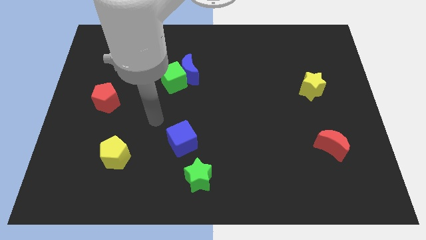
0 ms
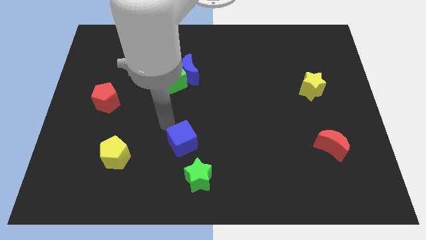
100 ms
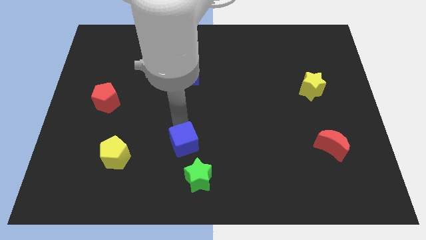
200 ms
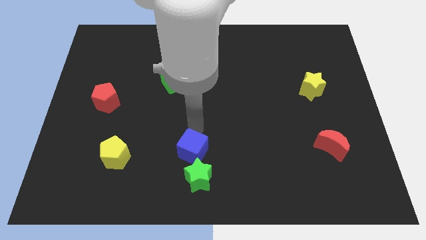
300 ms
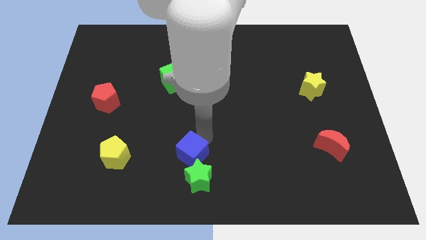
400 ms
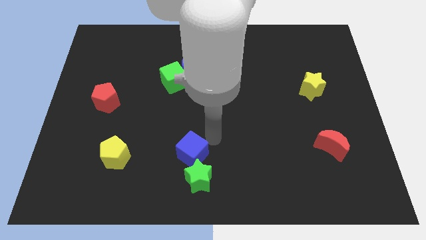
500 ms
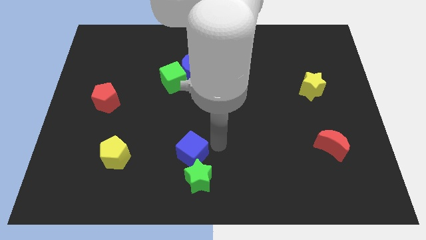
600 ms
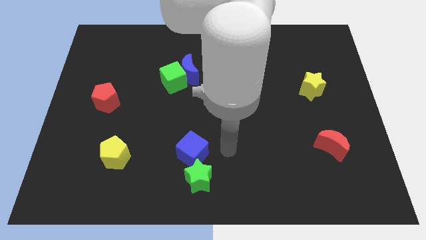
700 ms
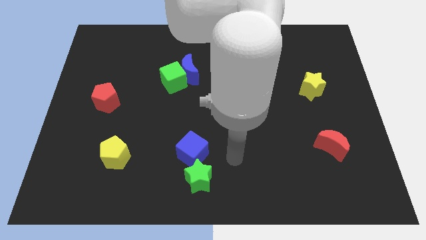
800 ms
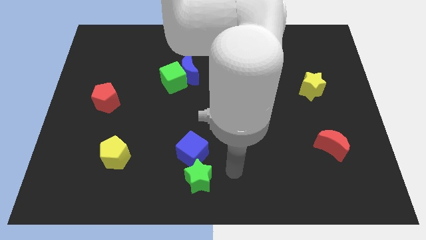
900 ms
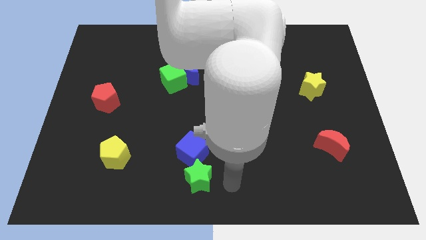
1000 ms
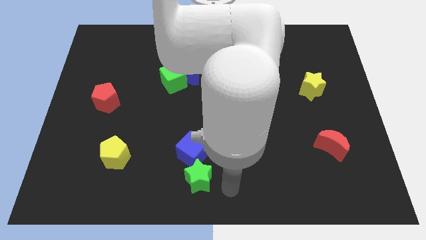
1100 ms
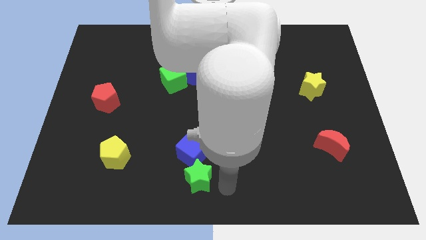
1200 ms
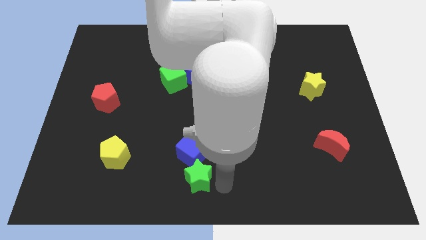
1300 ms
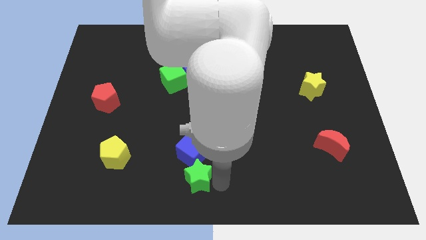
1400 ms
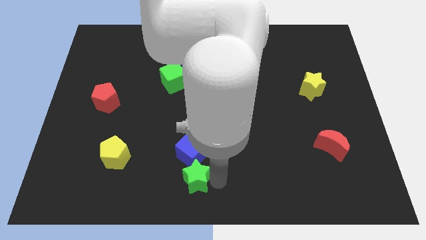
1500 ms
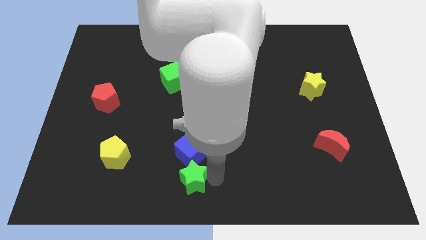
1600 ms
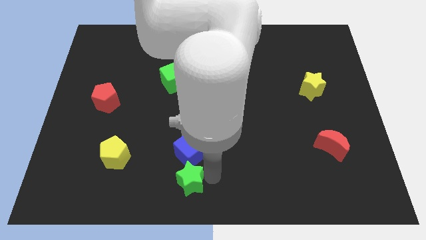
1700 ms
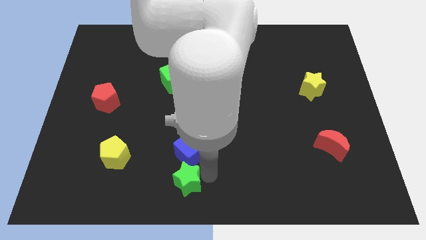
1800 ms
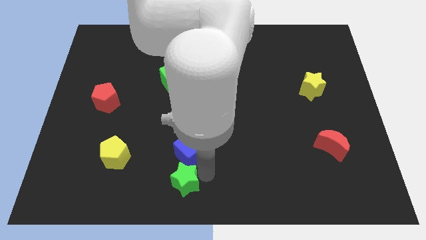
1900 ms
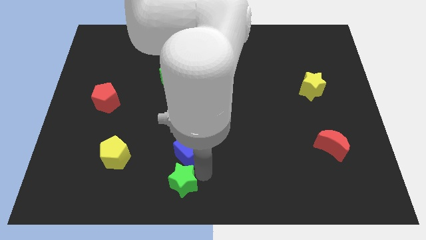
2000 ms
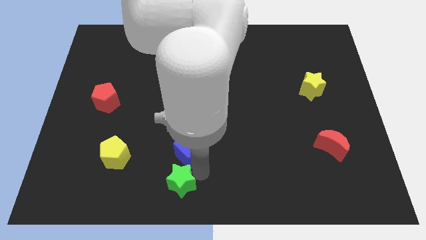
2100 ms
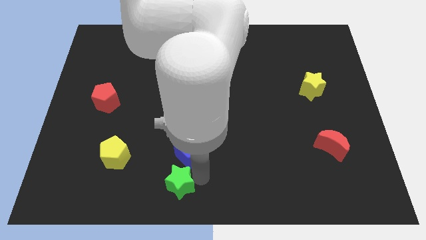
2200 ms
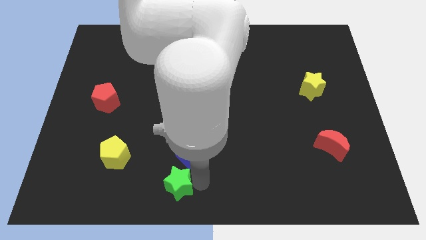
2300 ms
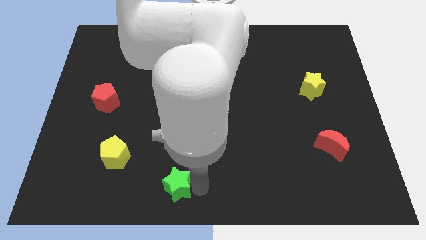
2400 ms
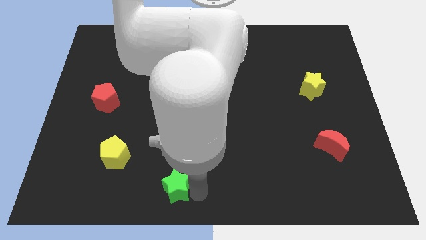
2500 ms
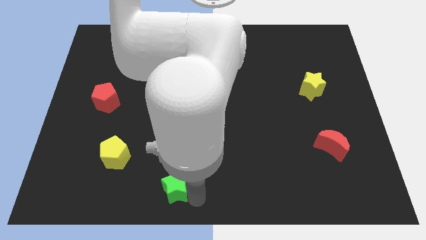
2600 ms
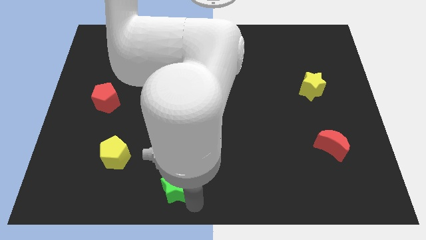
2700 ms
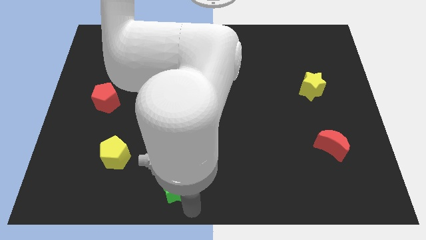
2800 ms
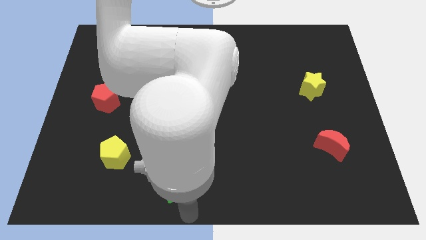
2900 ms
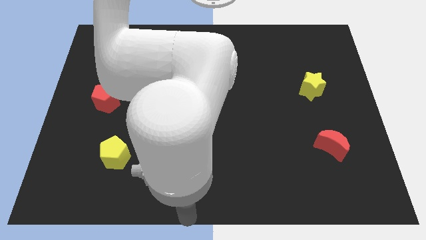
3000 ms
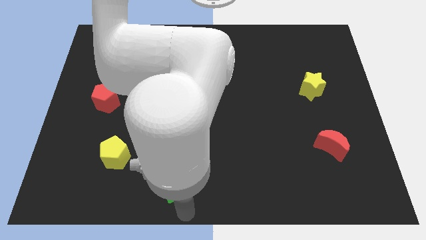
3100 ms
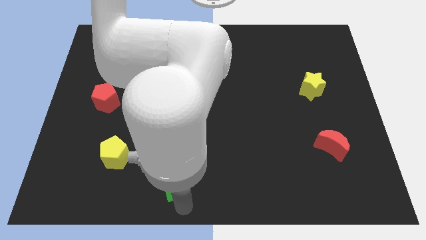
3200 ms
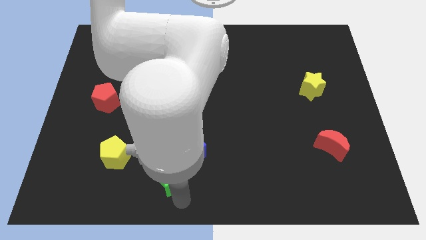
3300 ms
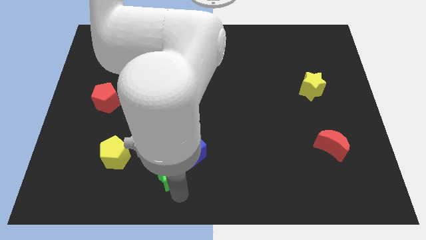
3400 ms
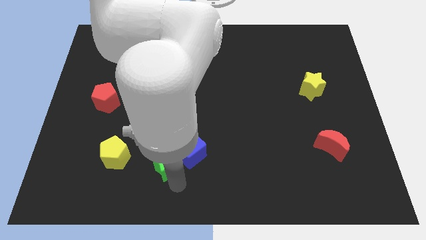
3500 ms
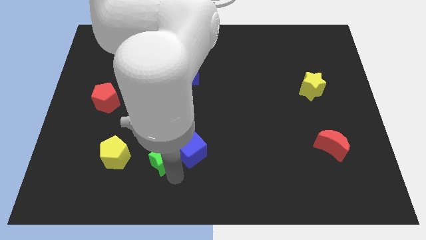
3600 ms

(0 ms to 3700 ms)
slightly push the green star upwards and then to the left

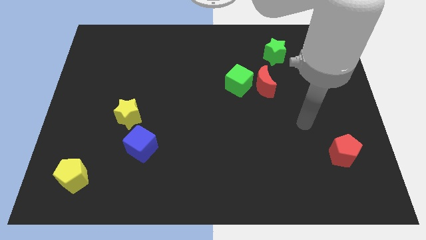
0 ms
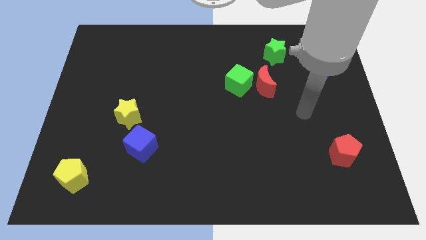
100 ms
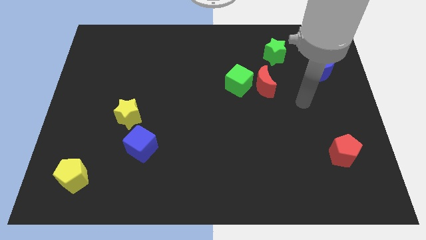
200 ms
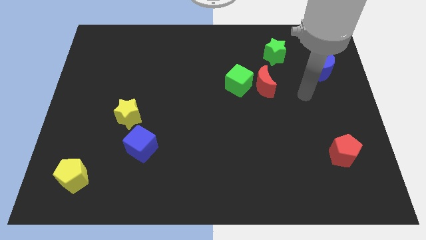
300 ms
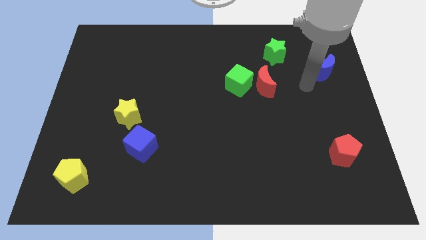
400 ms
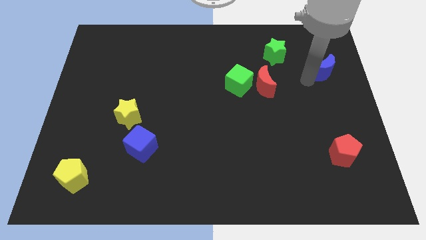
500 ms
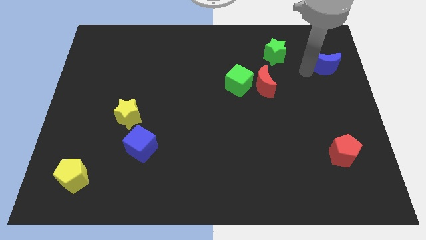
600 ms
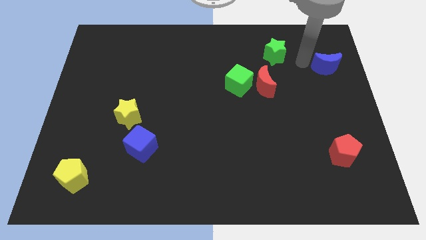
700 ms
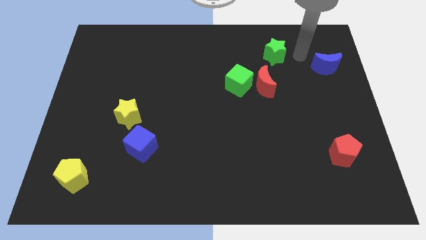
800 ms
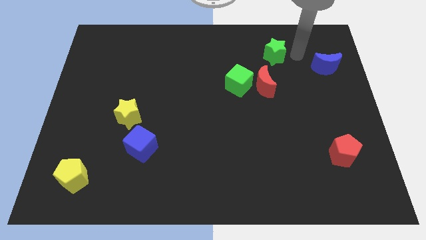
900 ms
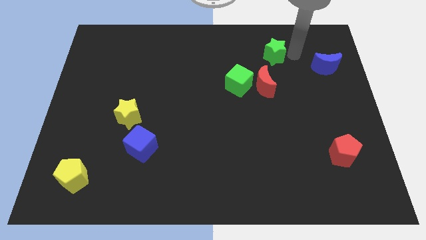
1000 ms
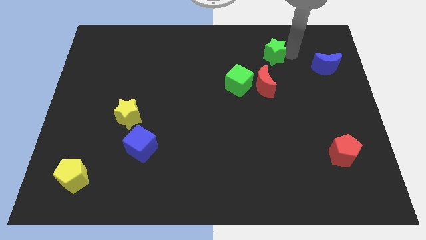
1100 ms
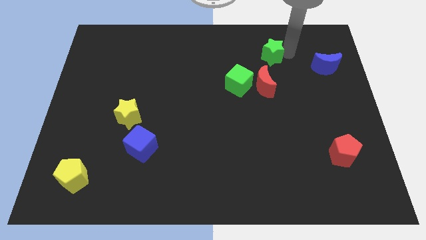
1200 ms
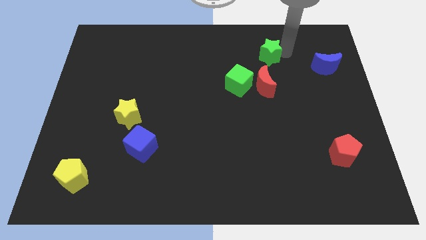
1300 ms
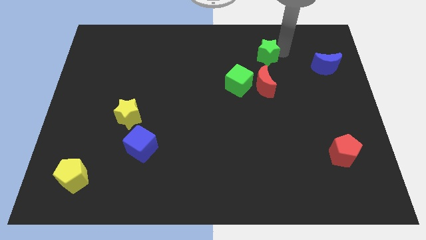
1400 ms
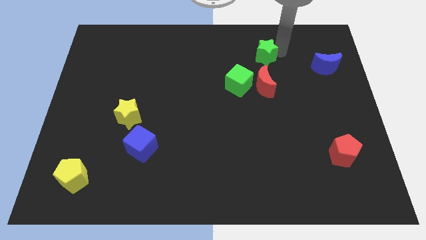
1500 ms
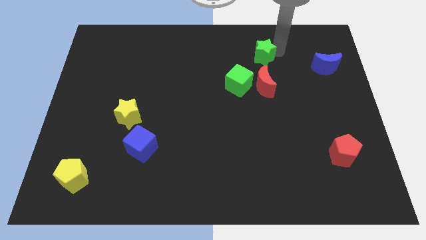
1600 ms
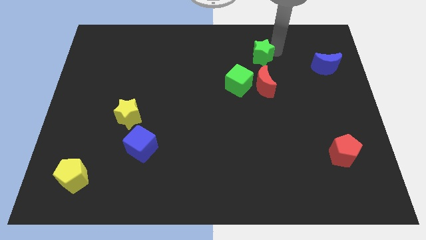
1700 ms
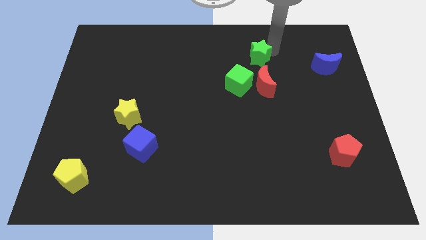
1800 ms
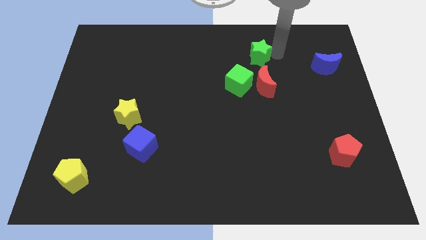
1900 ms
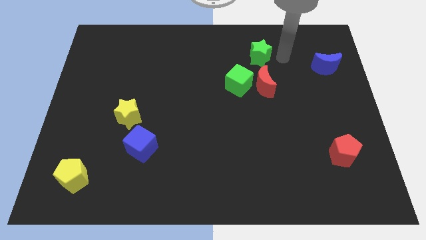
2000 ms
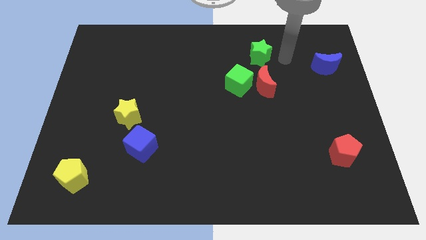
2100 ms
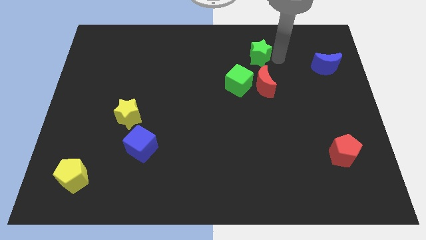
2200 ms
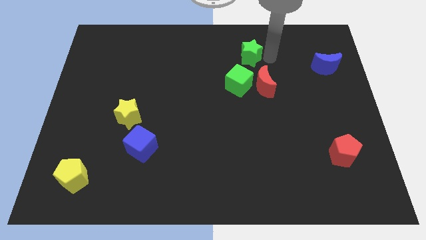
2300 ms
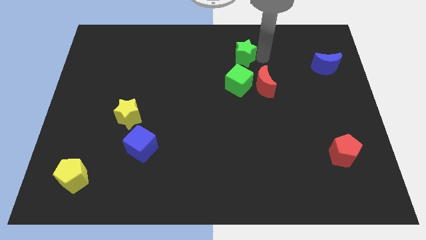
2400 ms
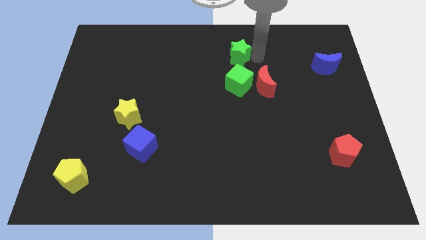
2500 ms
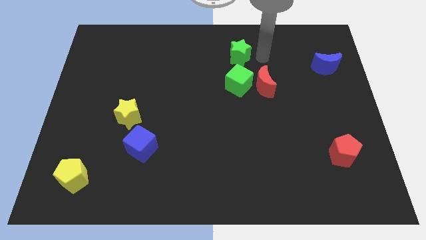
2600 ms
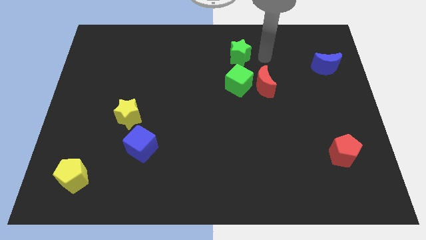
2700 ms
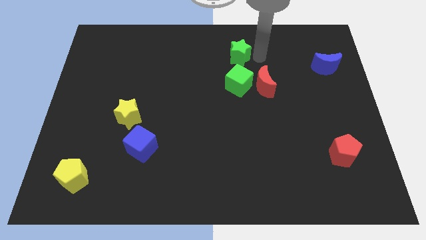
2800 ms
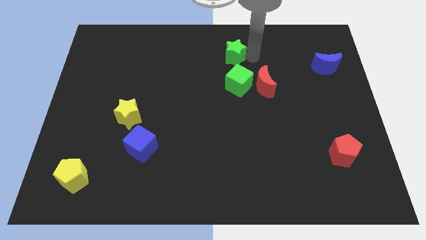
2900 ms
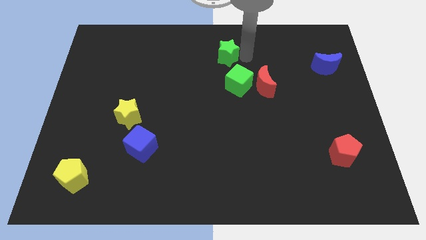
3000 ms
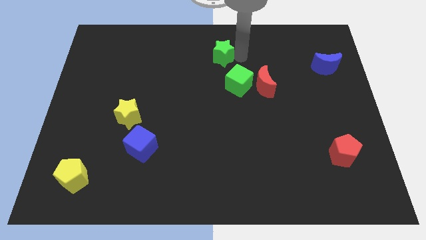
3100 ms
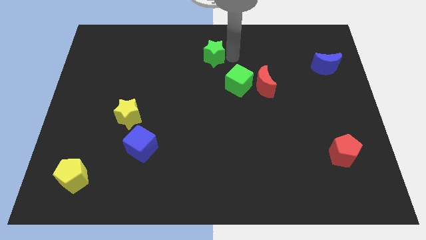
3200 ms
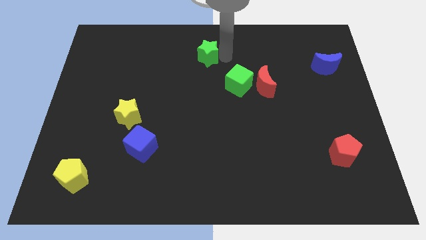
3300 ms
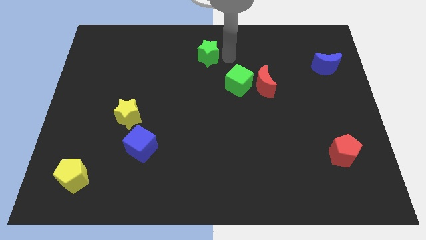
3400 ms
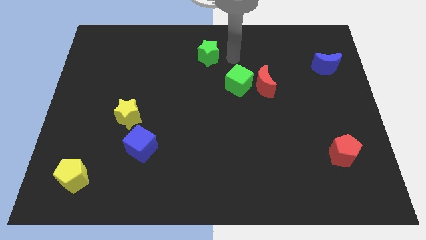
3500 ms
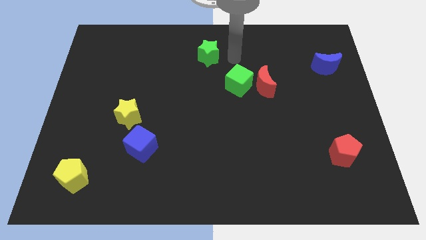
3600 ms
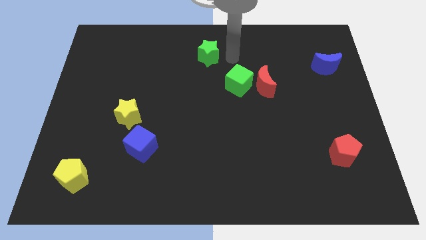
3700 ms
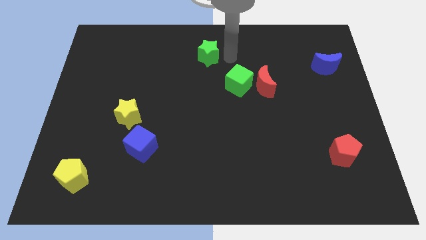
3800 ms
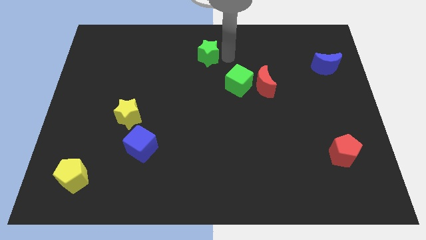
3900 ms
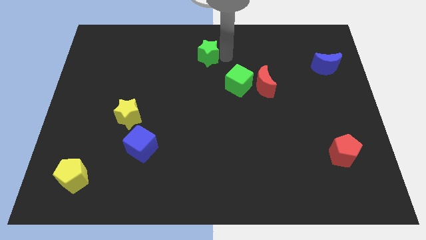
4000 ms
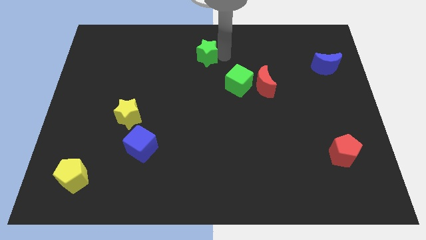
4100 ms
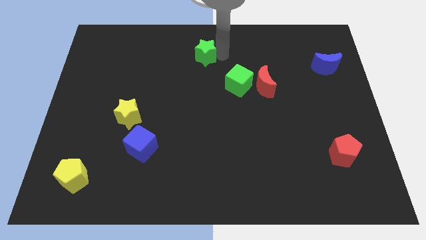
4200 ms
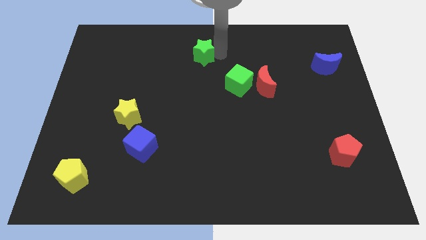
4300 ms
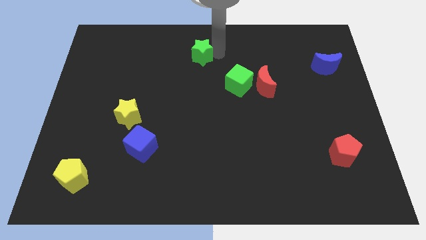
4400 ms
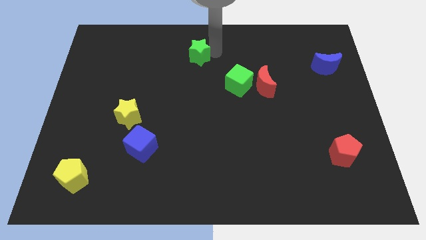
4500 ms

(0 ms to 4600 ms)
move the green star left
